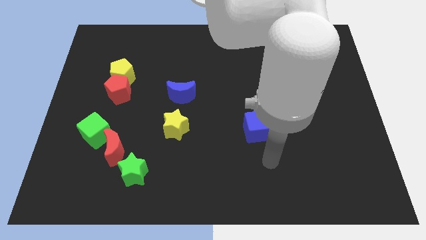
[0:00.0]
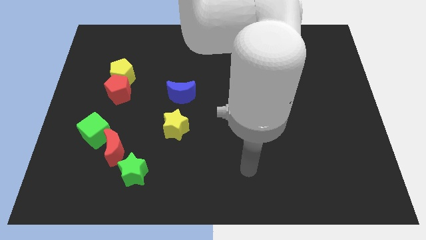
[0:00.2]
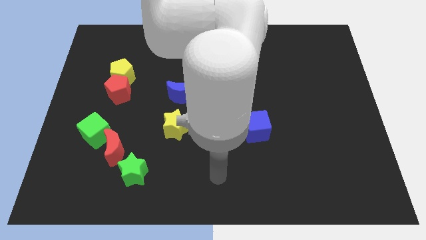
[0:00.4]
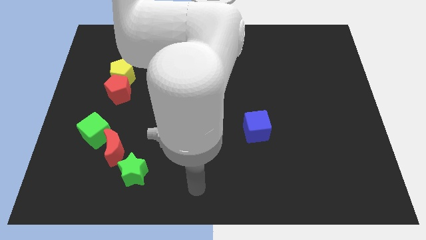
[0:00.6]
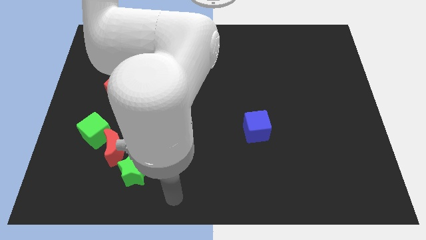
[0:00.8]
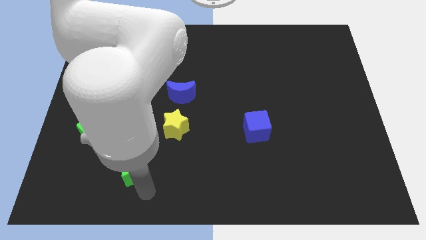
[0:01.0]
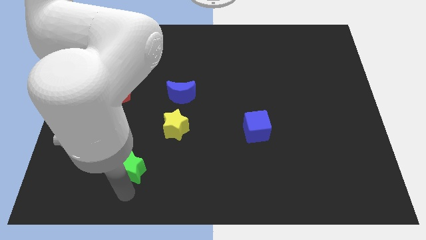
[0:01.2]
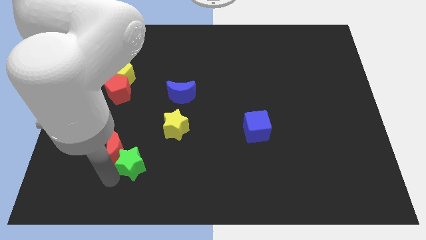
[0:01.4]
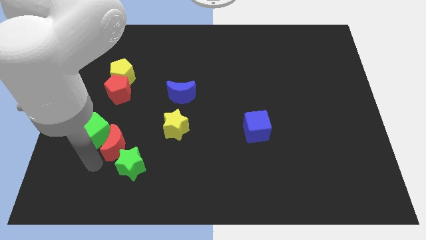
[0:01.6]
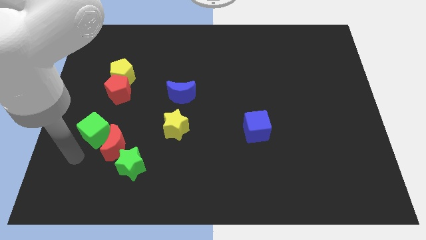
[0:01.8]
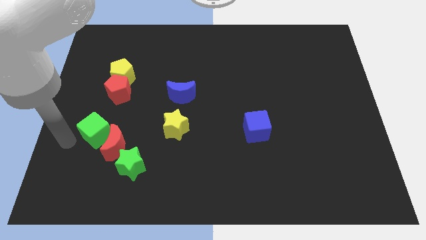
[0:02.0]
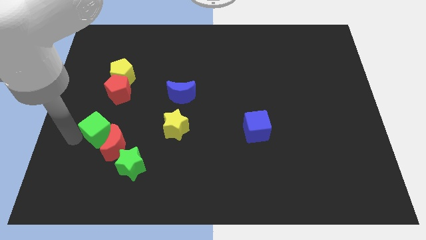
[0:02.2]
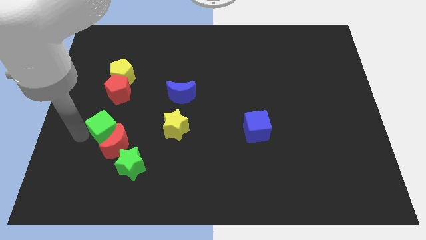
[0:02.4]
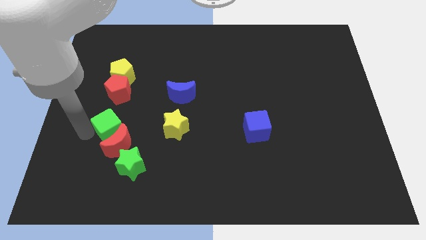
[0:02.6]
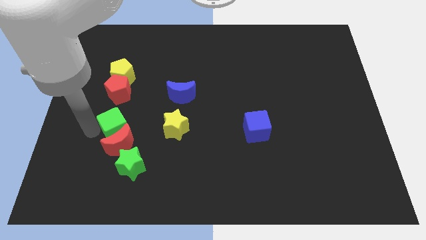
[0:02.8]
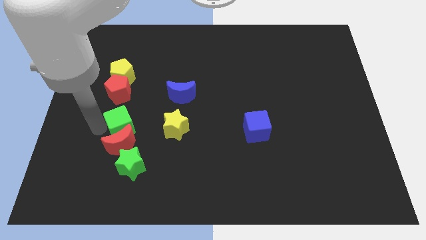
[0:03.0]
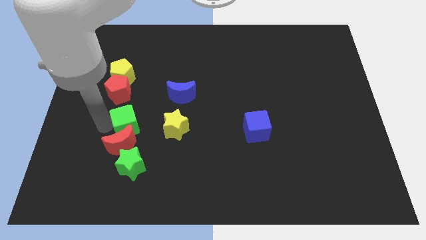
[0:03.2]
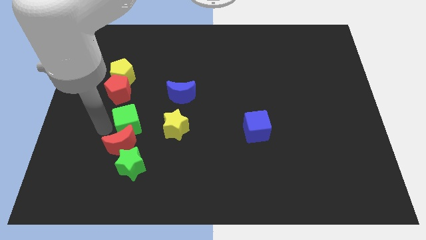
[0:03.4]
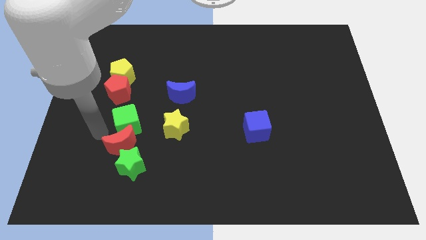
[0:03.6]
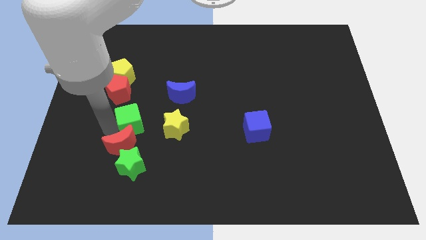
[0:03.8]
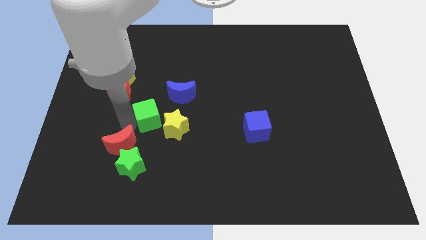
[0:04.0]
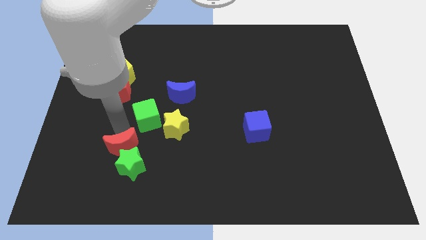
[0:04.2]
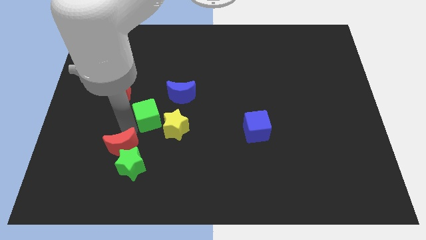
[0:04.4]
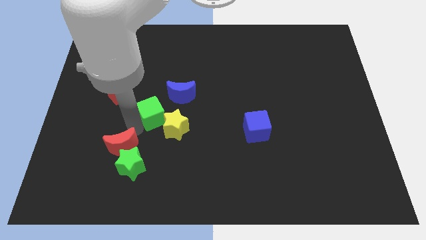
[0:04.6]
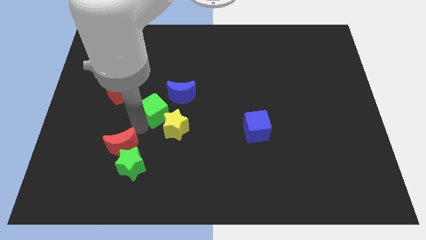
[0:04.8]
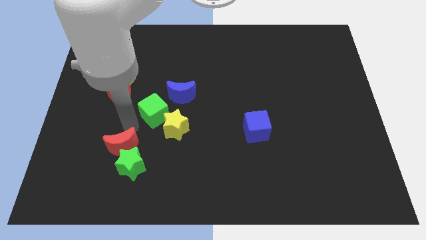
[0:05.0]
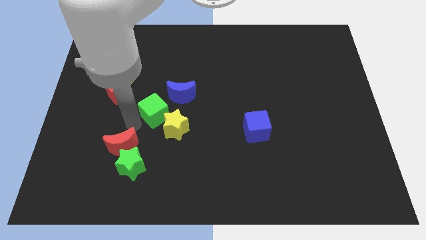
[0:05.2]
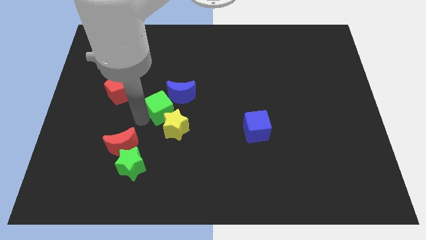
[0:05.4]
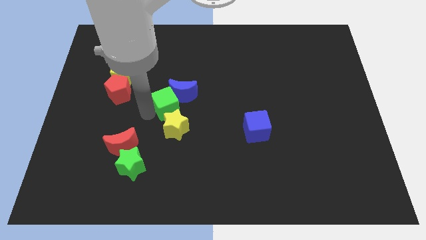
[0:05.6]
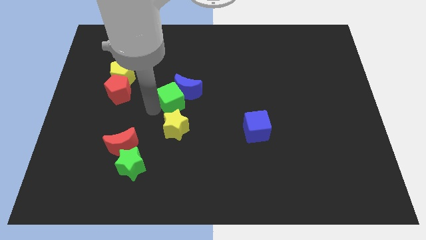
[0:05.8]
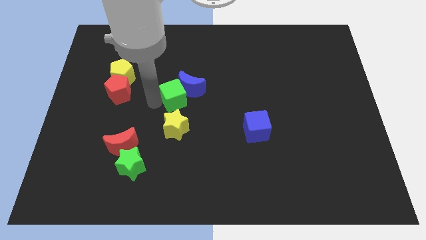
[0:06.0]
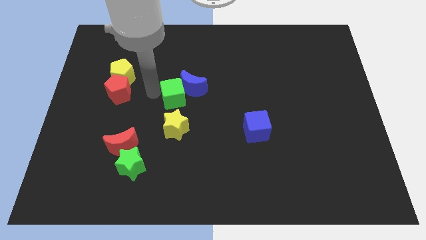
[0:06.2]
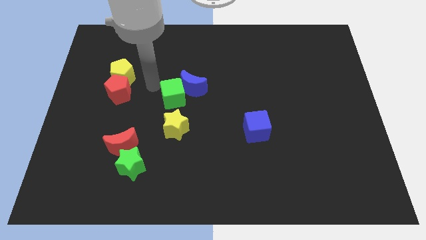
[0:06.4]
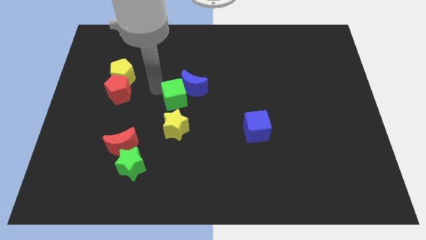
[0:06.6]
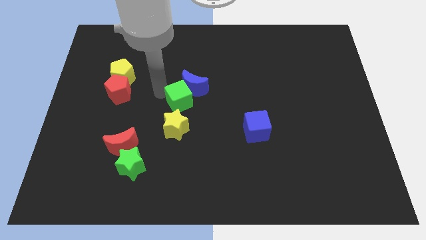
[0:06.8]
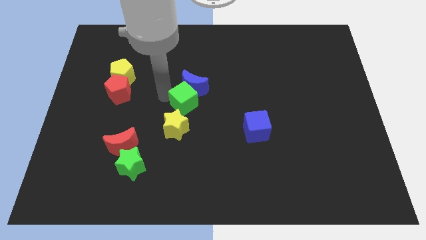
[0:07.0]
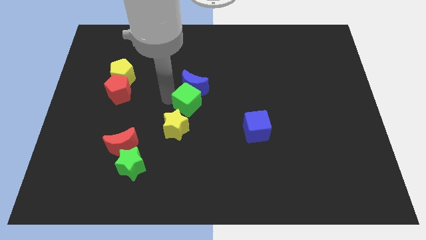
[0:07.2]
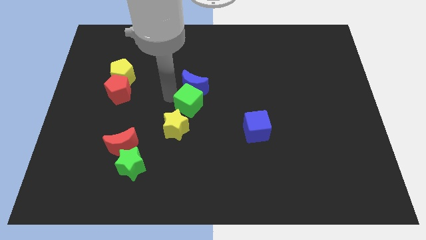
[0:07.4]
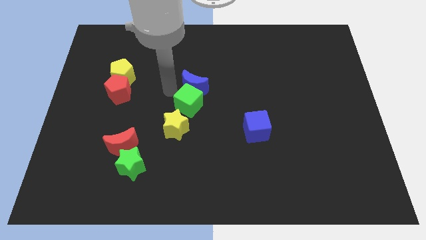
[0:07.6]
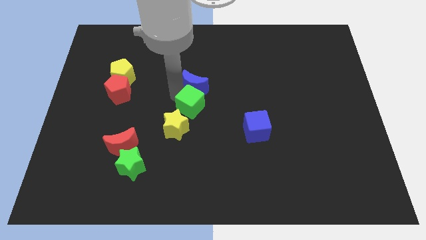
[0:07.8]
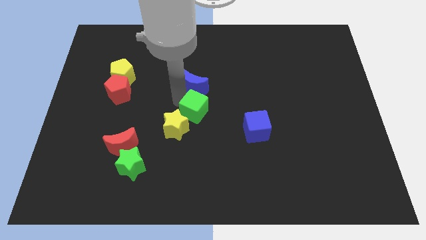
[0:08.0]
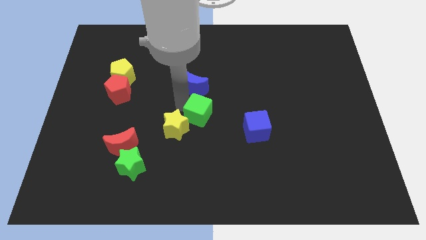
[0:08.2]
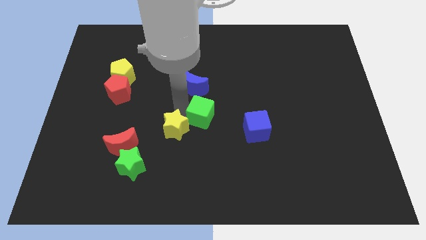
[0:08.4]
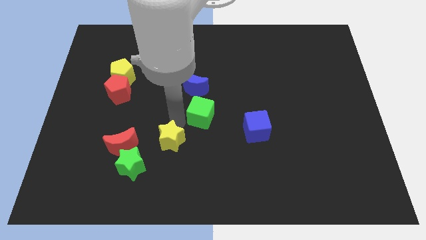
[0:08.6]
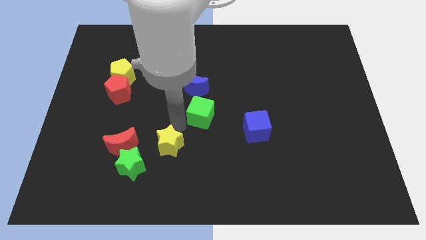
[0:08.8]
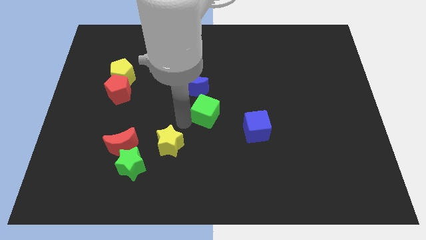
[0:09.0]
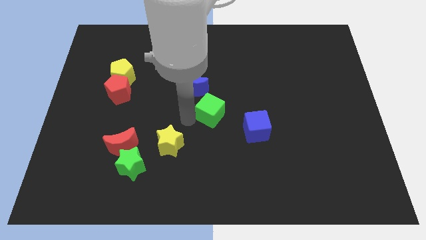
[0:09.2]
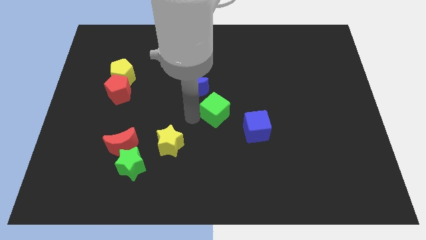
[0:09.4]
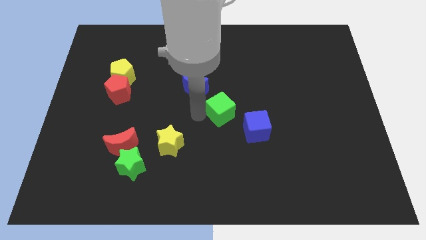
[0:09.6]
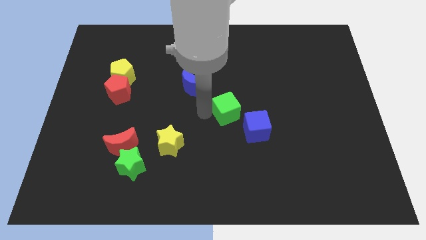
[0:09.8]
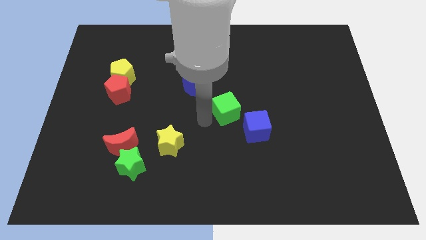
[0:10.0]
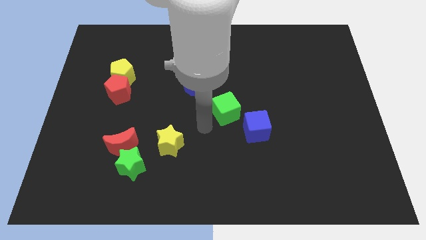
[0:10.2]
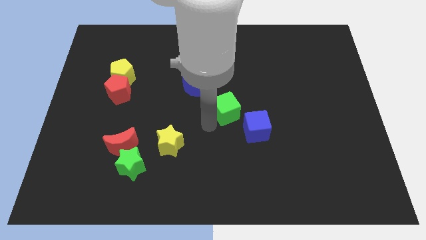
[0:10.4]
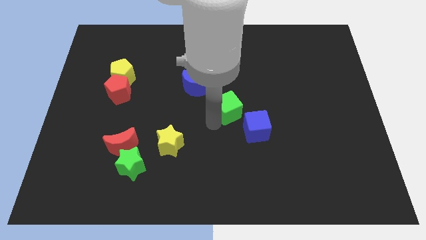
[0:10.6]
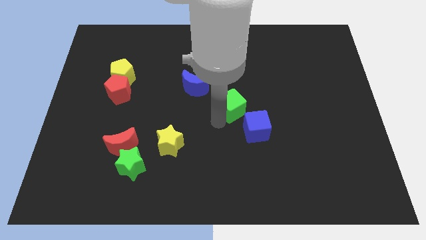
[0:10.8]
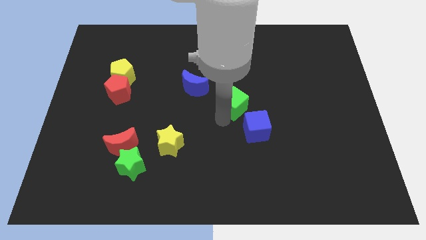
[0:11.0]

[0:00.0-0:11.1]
move the green cube to the top side of the blue cube

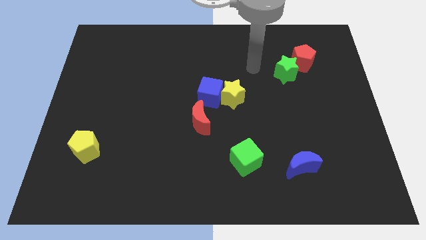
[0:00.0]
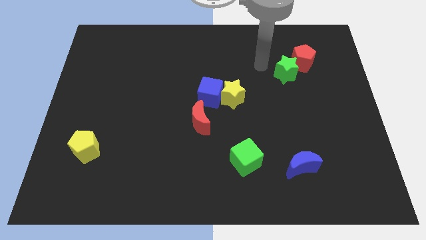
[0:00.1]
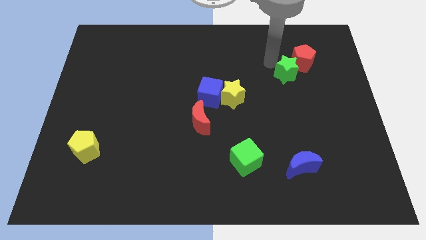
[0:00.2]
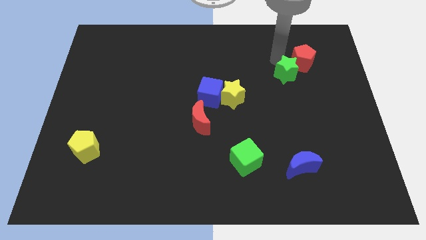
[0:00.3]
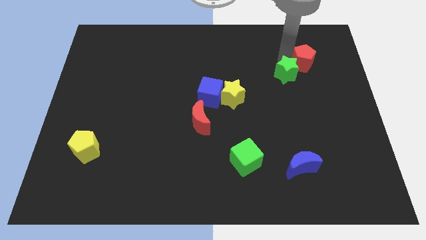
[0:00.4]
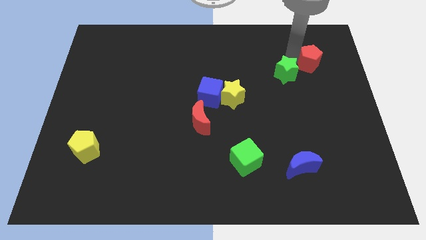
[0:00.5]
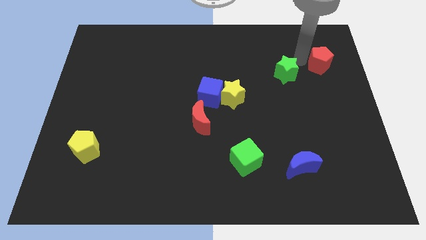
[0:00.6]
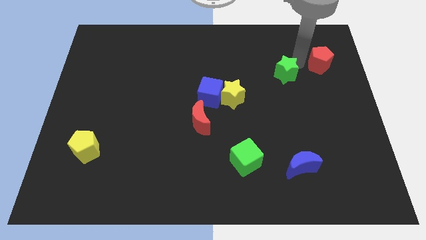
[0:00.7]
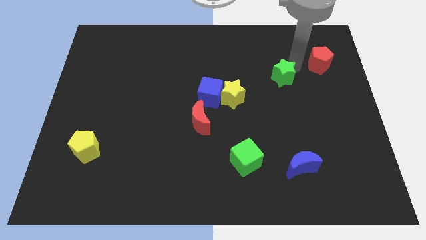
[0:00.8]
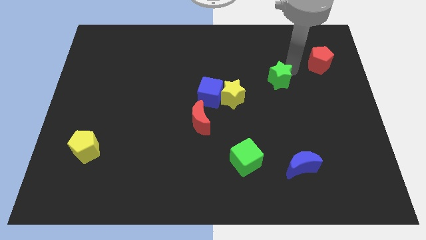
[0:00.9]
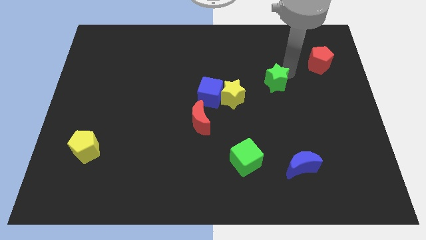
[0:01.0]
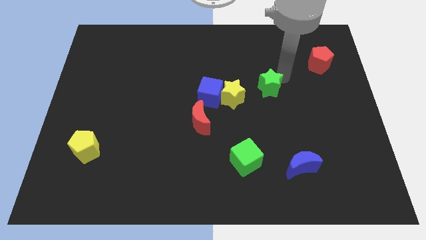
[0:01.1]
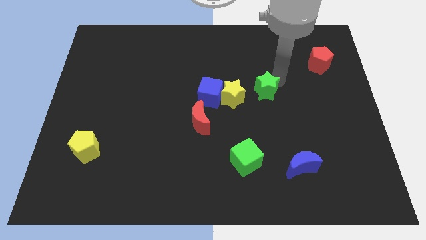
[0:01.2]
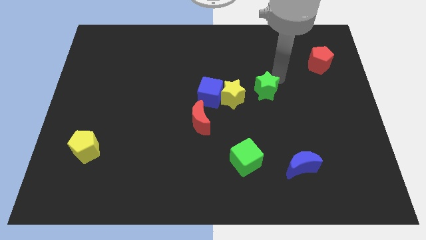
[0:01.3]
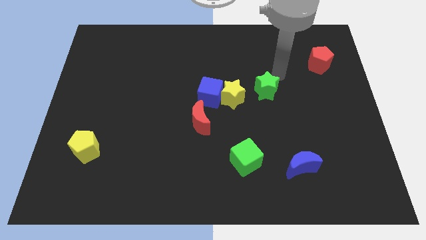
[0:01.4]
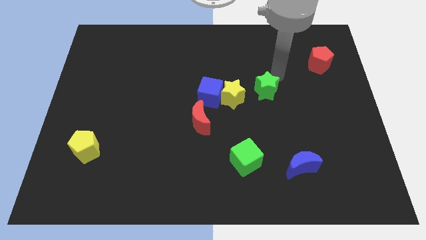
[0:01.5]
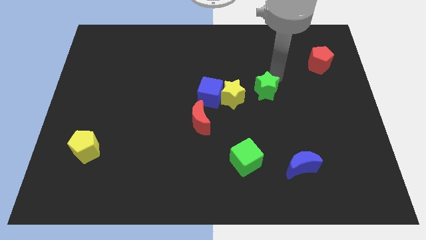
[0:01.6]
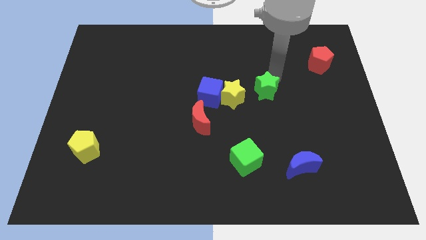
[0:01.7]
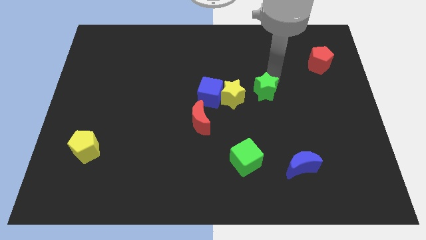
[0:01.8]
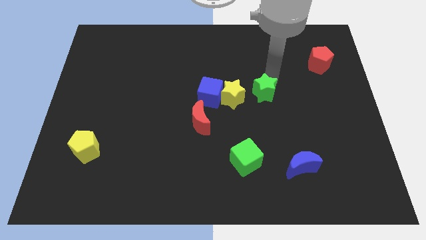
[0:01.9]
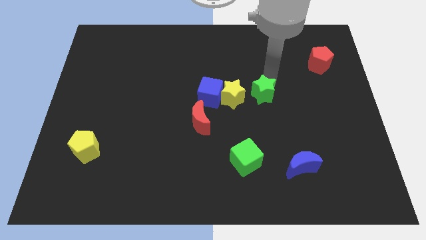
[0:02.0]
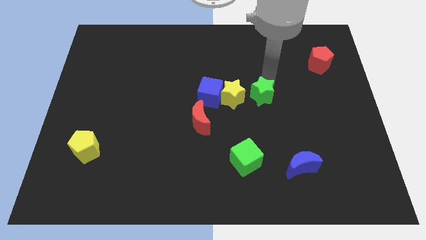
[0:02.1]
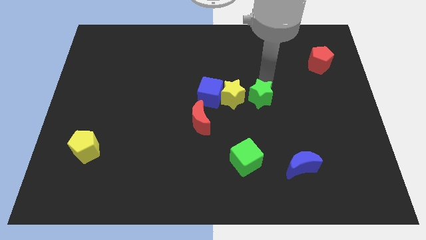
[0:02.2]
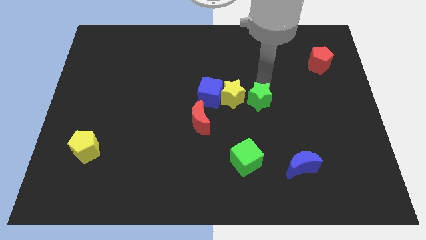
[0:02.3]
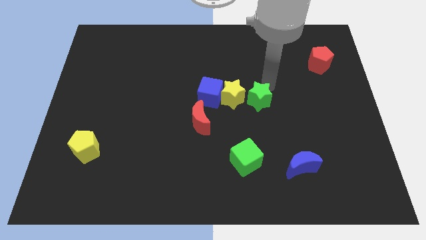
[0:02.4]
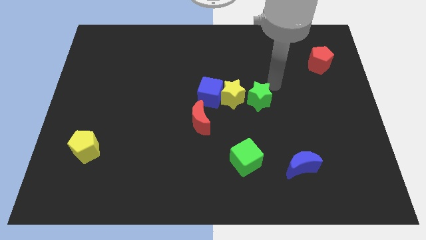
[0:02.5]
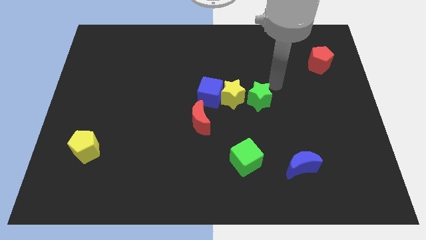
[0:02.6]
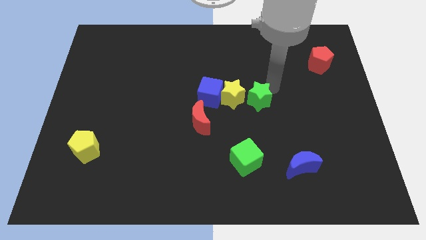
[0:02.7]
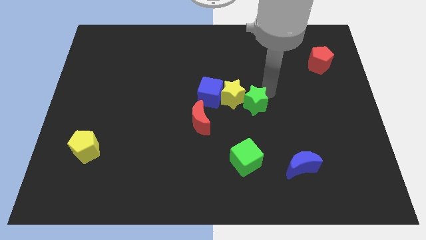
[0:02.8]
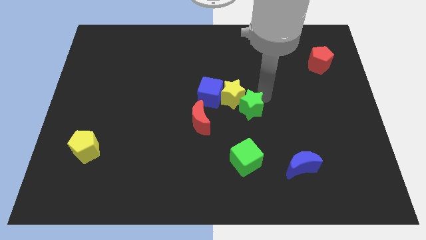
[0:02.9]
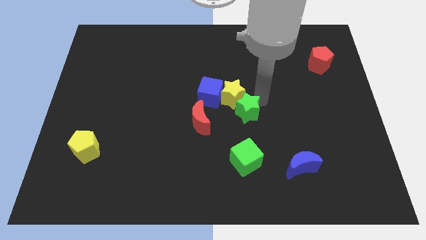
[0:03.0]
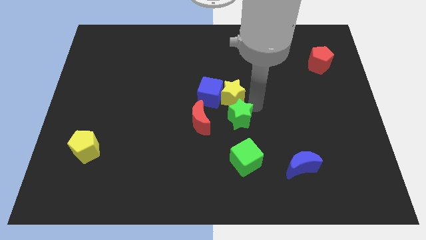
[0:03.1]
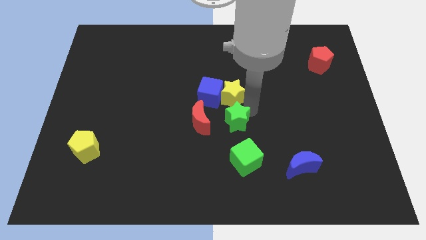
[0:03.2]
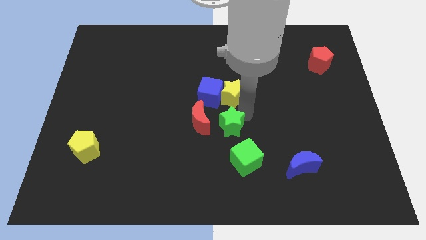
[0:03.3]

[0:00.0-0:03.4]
put the green star diagonally up and to the left of the green cube
